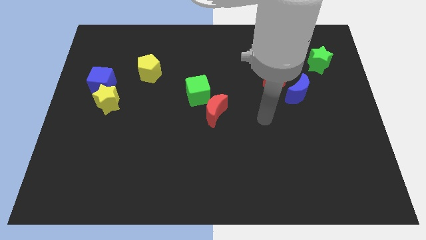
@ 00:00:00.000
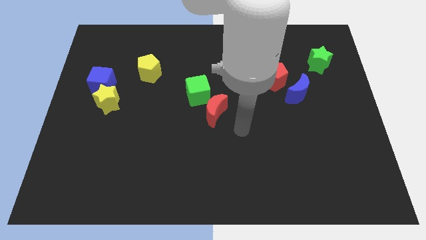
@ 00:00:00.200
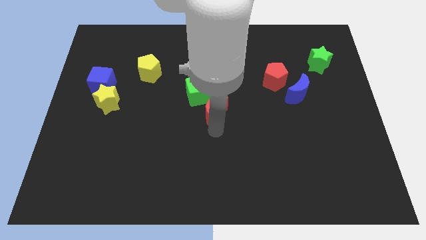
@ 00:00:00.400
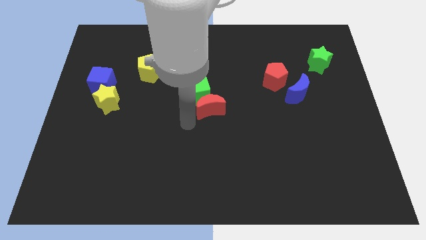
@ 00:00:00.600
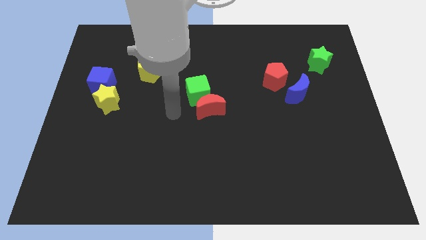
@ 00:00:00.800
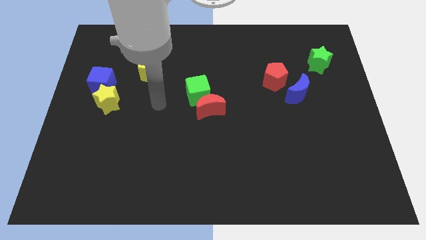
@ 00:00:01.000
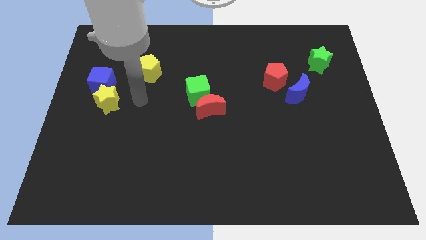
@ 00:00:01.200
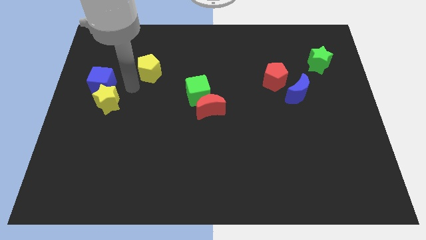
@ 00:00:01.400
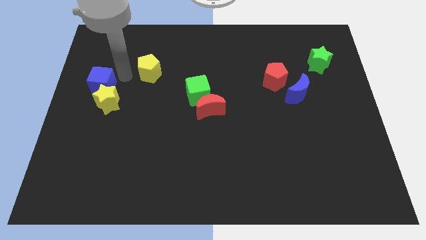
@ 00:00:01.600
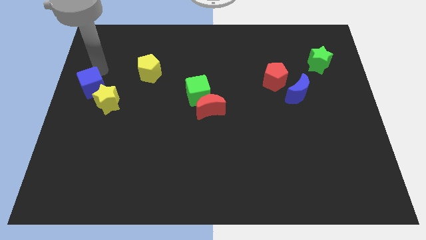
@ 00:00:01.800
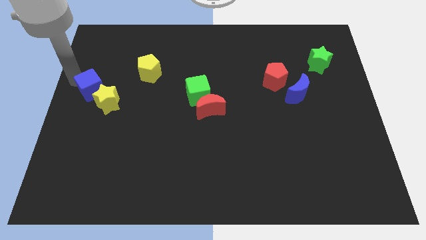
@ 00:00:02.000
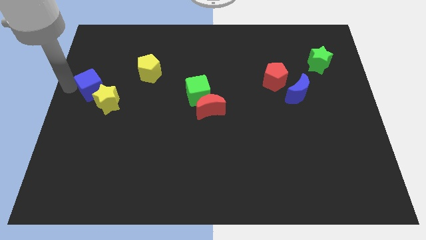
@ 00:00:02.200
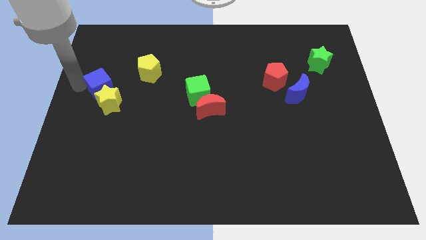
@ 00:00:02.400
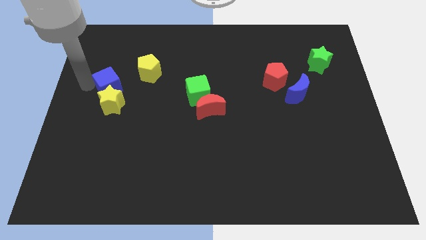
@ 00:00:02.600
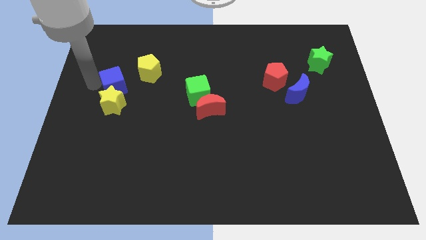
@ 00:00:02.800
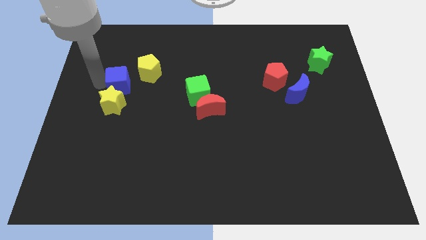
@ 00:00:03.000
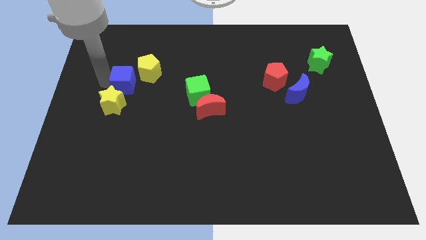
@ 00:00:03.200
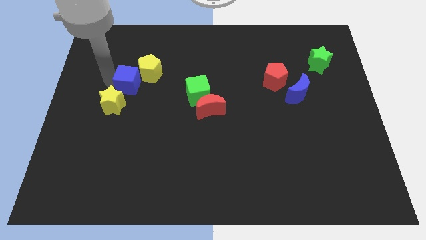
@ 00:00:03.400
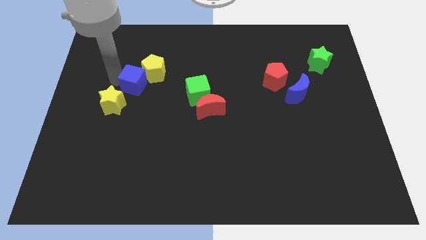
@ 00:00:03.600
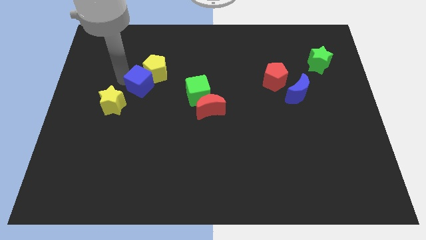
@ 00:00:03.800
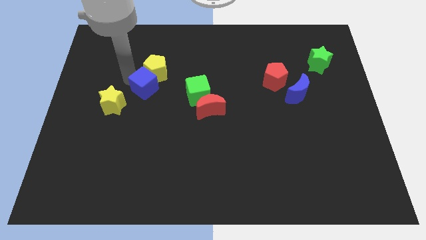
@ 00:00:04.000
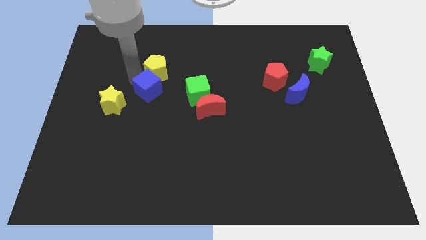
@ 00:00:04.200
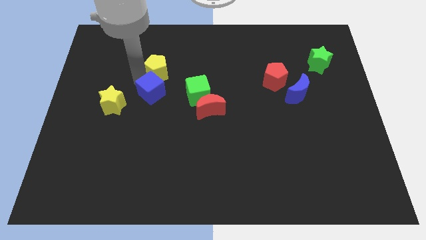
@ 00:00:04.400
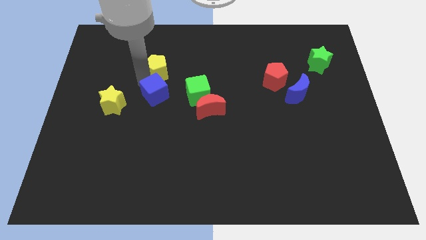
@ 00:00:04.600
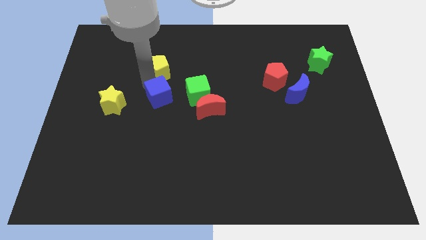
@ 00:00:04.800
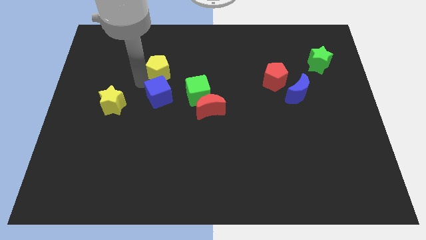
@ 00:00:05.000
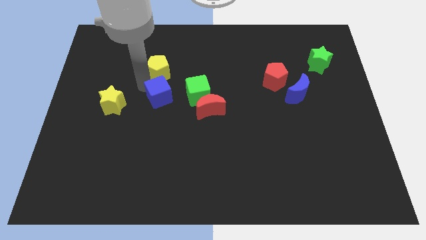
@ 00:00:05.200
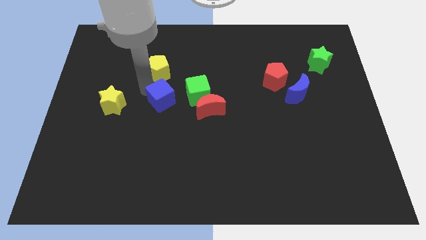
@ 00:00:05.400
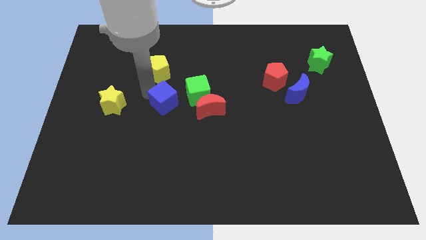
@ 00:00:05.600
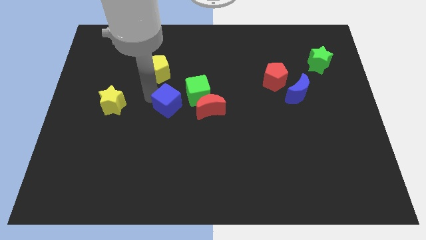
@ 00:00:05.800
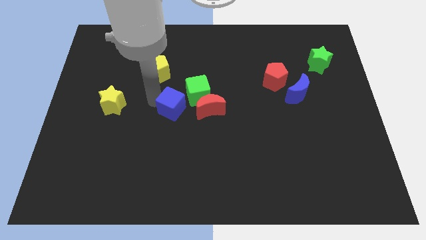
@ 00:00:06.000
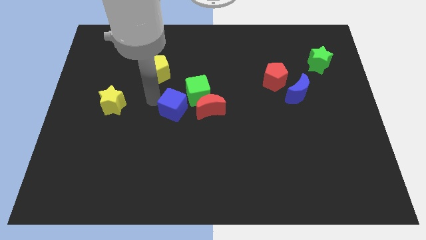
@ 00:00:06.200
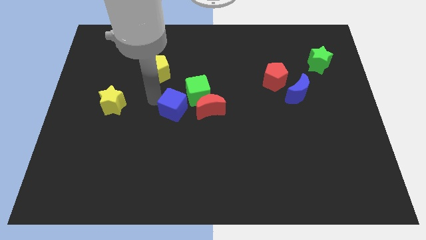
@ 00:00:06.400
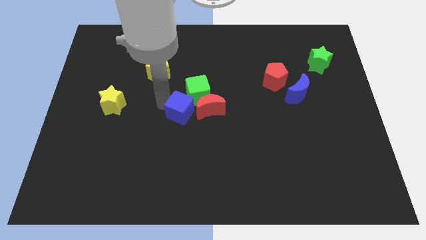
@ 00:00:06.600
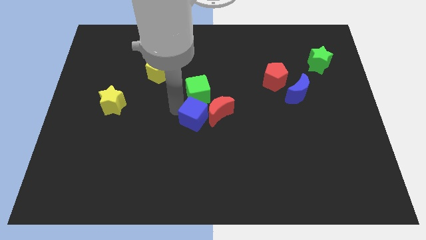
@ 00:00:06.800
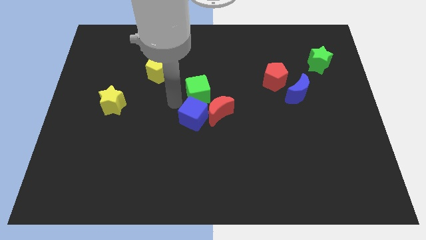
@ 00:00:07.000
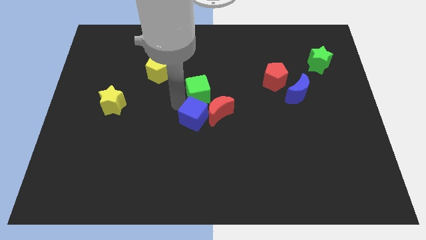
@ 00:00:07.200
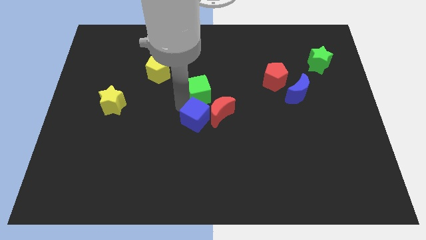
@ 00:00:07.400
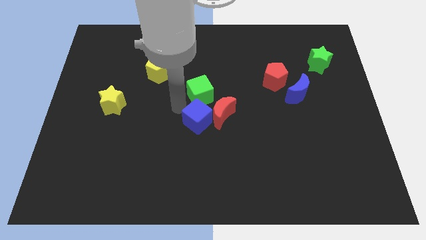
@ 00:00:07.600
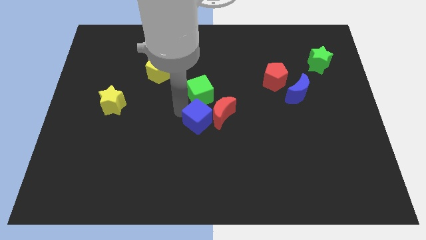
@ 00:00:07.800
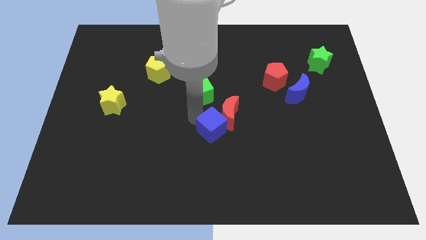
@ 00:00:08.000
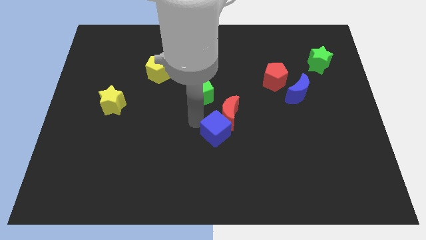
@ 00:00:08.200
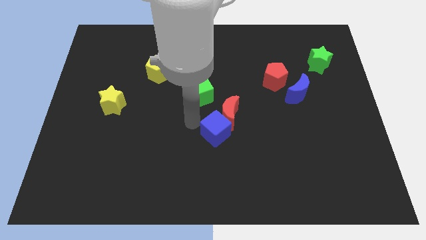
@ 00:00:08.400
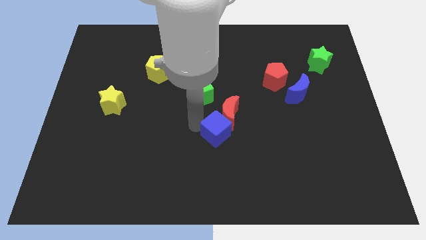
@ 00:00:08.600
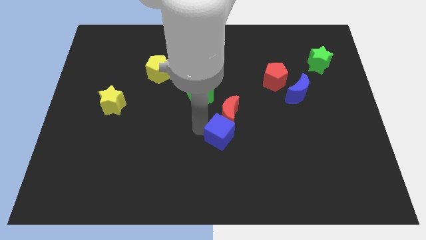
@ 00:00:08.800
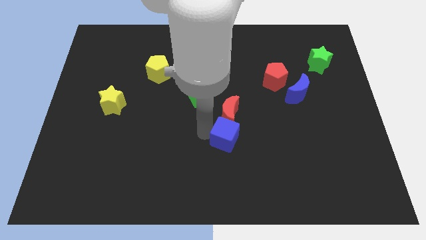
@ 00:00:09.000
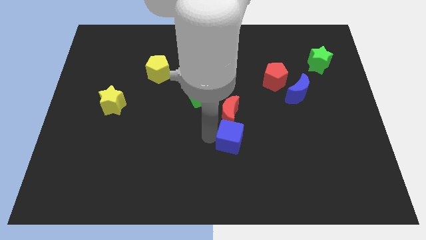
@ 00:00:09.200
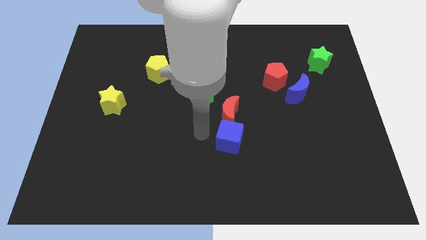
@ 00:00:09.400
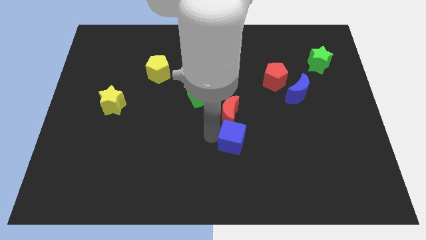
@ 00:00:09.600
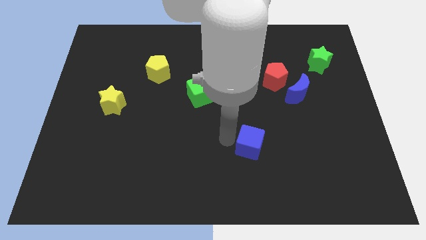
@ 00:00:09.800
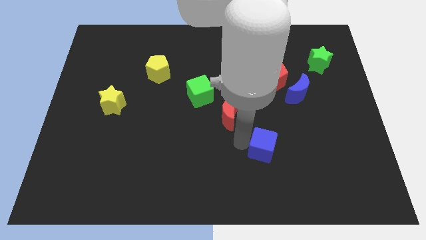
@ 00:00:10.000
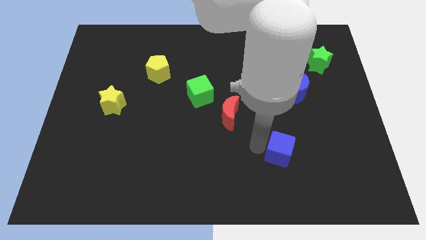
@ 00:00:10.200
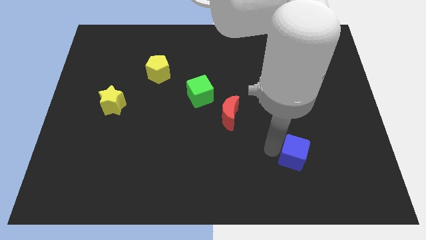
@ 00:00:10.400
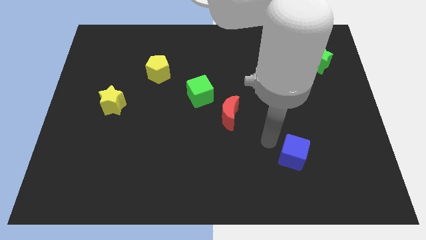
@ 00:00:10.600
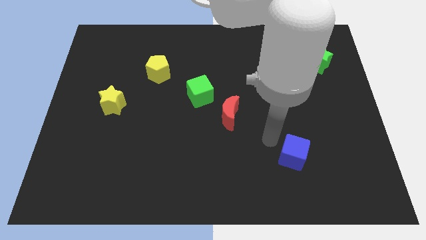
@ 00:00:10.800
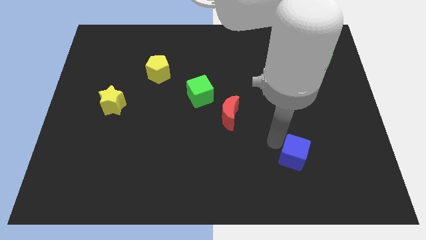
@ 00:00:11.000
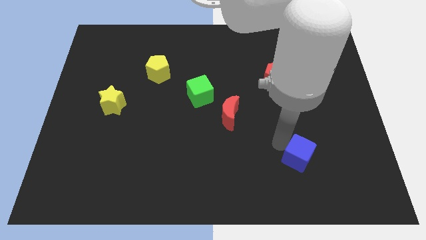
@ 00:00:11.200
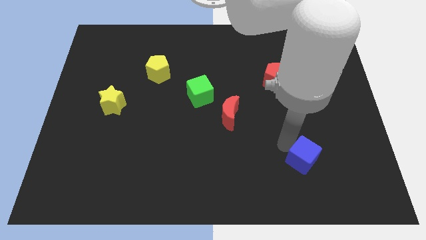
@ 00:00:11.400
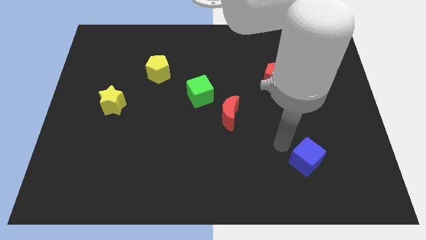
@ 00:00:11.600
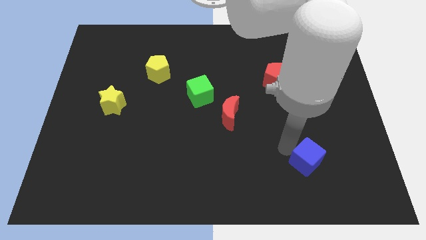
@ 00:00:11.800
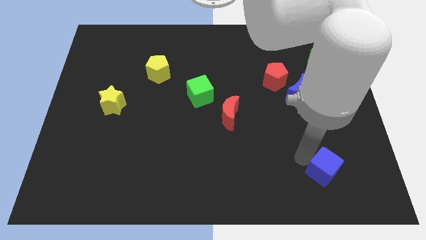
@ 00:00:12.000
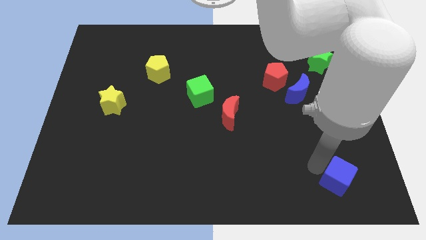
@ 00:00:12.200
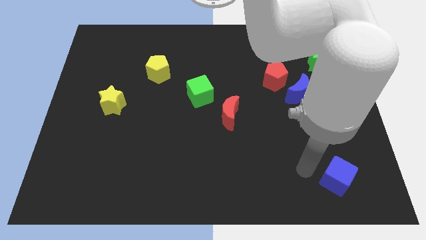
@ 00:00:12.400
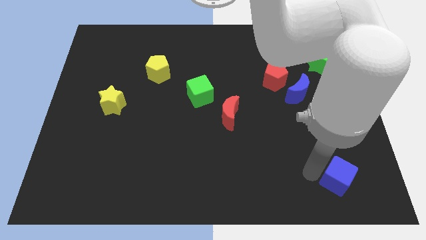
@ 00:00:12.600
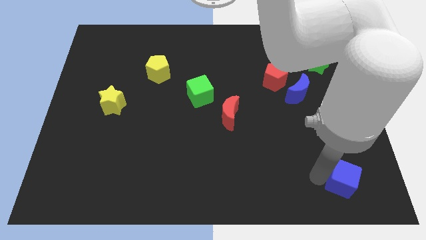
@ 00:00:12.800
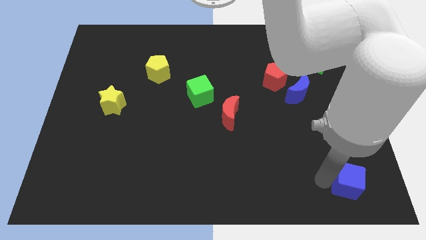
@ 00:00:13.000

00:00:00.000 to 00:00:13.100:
put the blue cube to the bottom right corner
